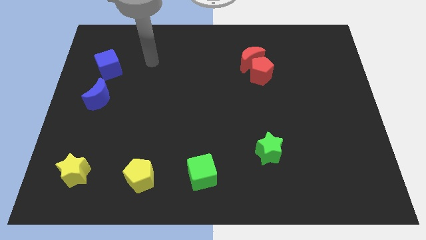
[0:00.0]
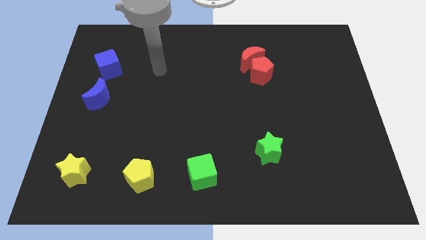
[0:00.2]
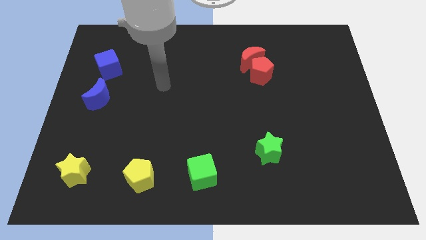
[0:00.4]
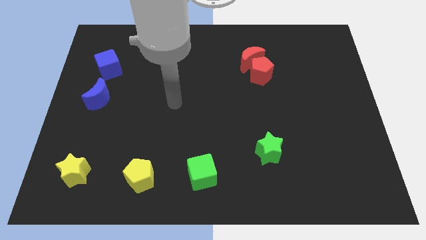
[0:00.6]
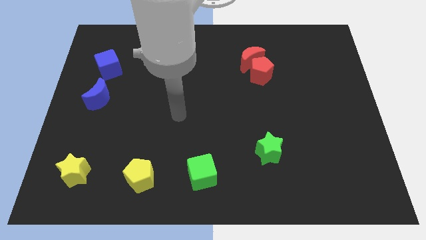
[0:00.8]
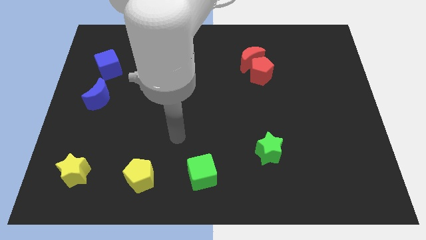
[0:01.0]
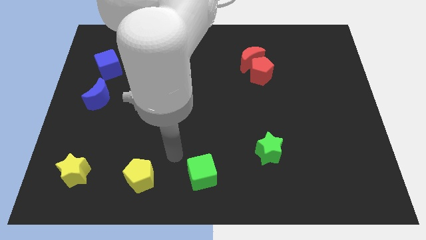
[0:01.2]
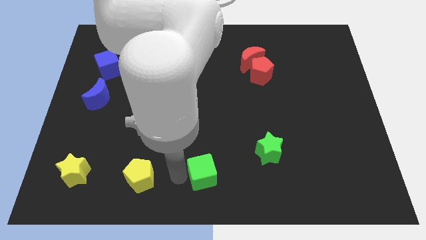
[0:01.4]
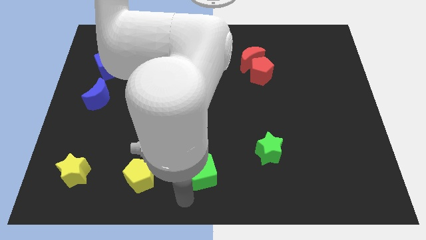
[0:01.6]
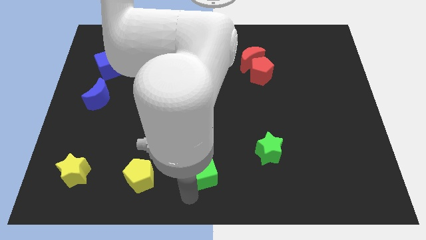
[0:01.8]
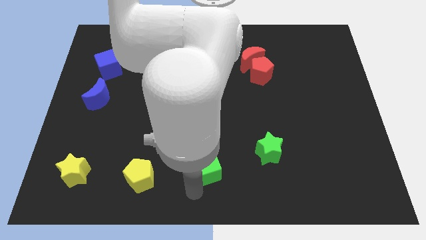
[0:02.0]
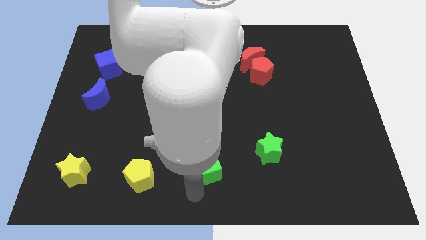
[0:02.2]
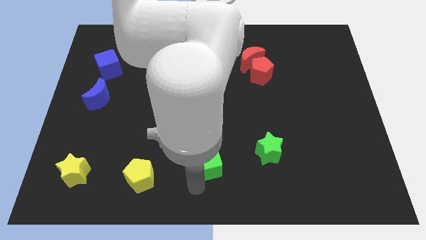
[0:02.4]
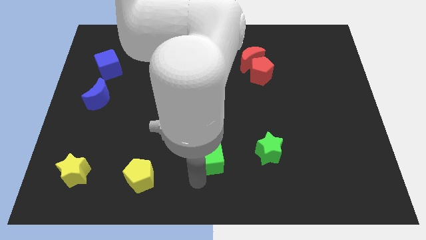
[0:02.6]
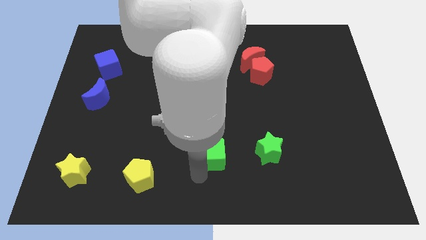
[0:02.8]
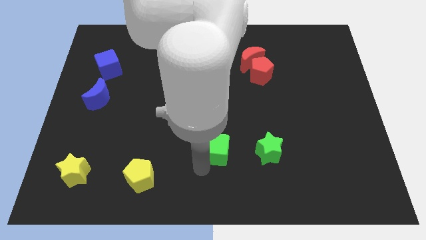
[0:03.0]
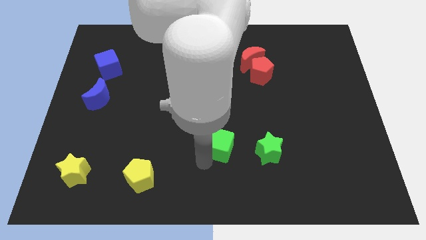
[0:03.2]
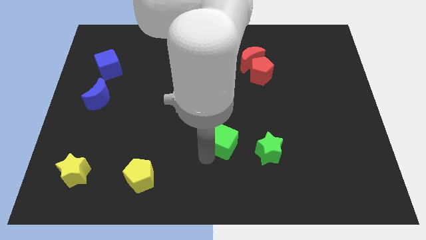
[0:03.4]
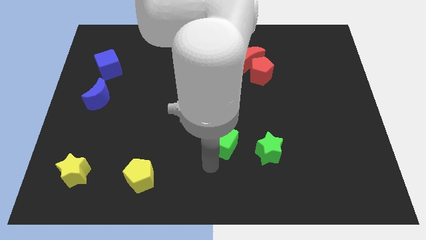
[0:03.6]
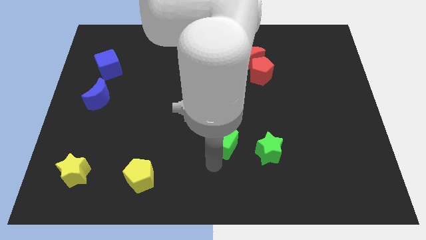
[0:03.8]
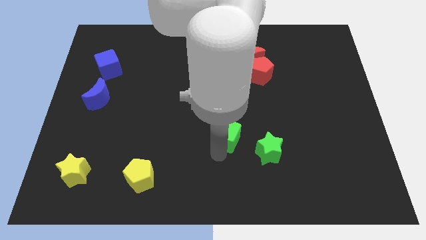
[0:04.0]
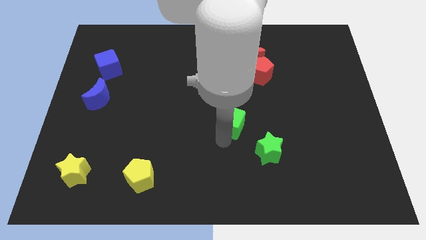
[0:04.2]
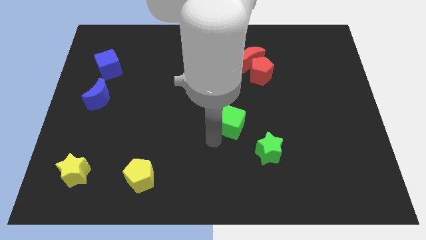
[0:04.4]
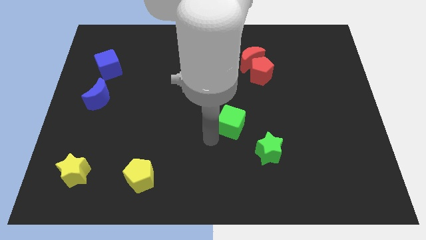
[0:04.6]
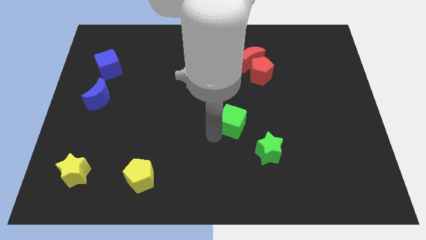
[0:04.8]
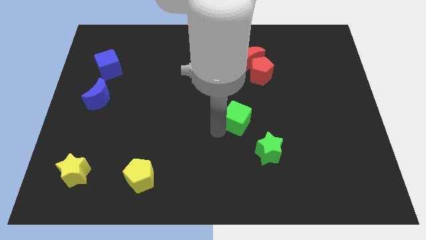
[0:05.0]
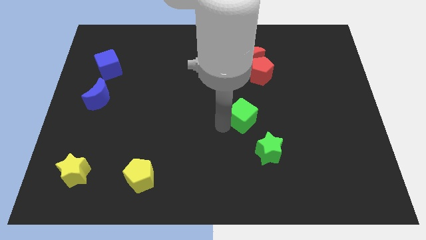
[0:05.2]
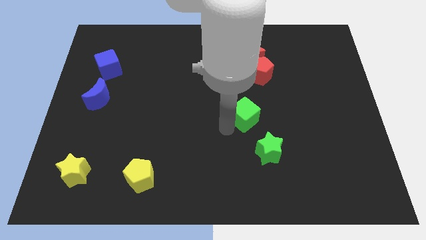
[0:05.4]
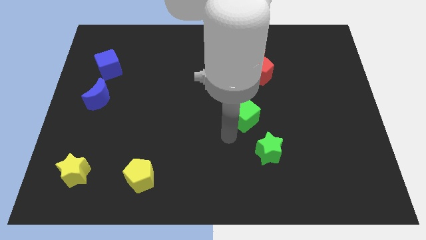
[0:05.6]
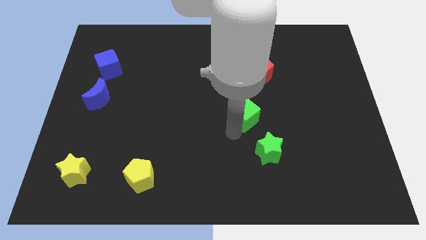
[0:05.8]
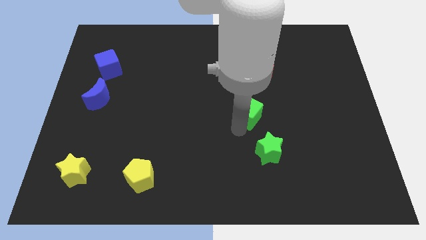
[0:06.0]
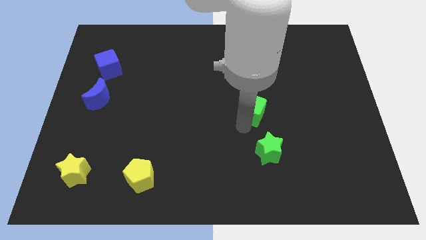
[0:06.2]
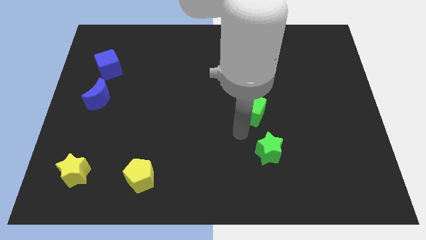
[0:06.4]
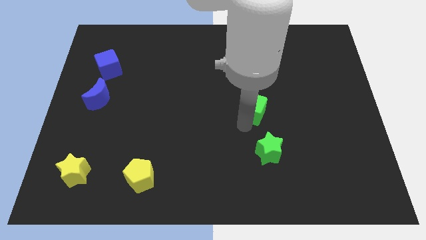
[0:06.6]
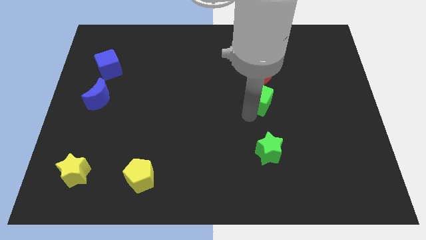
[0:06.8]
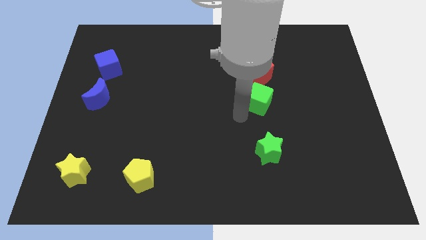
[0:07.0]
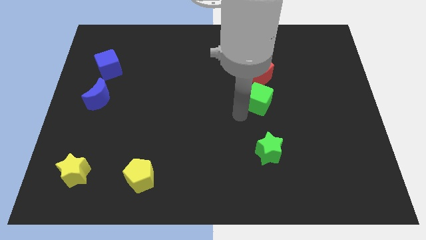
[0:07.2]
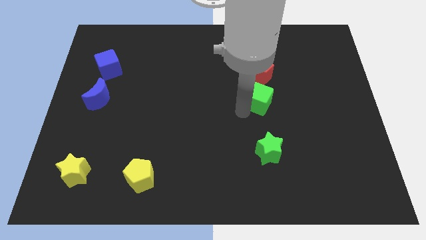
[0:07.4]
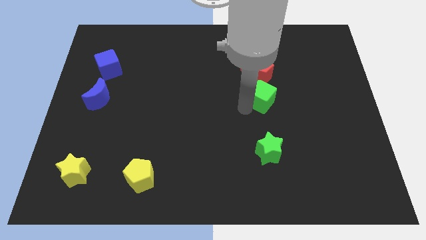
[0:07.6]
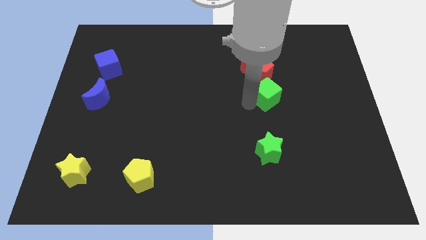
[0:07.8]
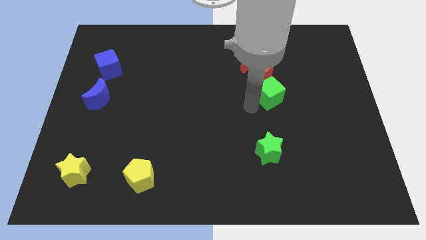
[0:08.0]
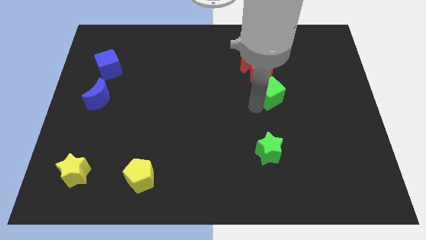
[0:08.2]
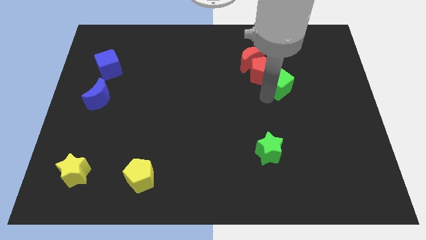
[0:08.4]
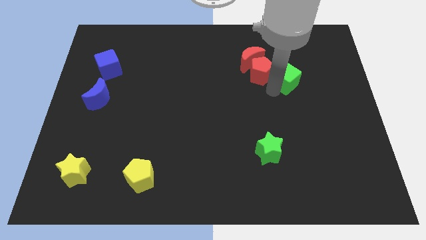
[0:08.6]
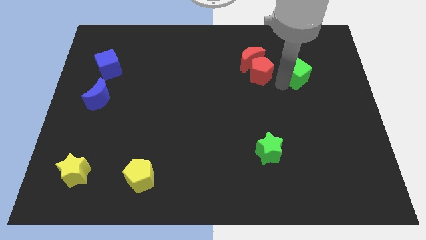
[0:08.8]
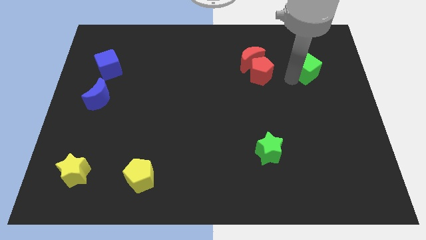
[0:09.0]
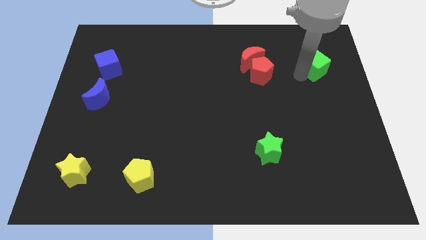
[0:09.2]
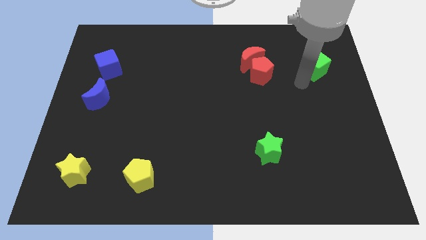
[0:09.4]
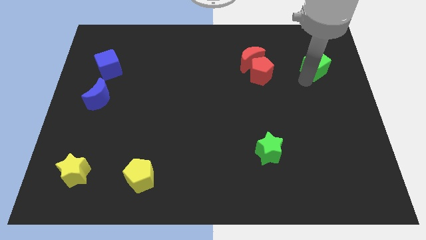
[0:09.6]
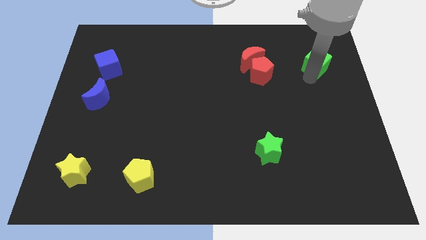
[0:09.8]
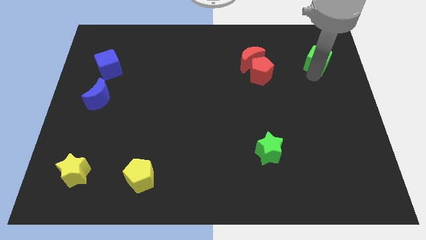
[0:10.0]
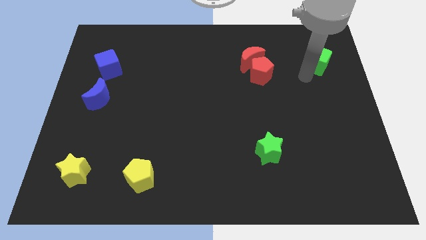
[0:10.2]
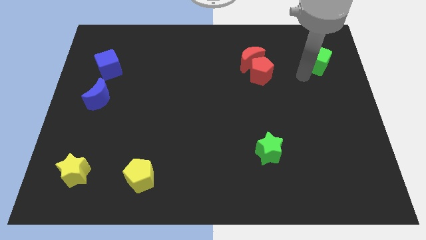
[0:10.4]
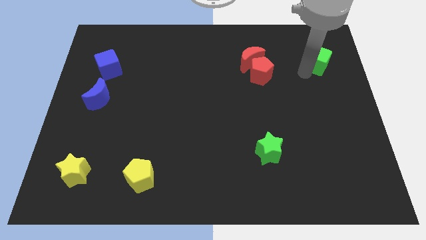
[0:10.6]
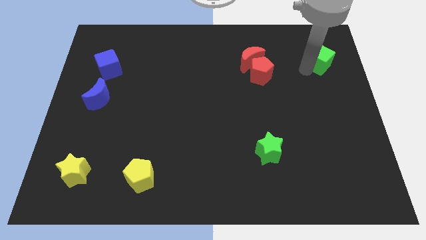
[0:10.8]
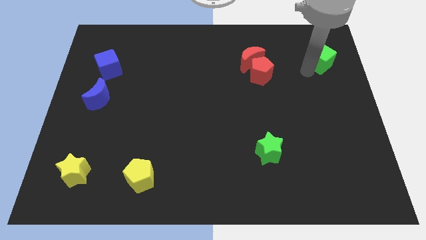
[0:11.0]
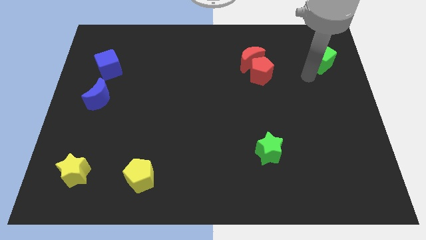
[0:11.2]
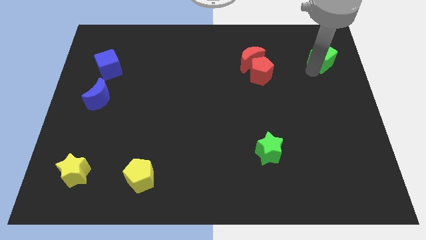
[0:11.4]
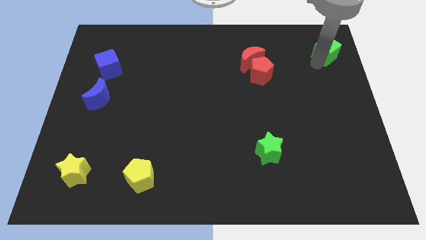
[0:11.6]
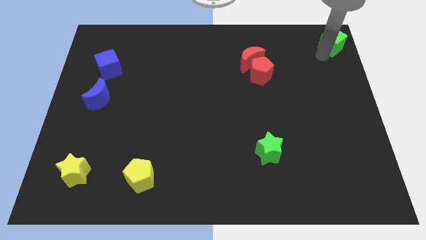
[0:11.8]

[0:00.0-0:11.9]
slide the green cube to the top right corner

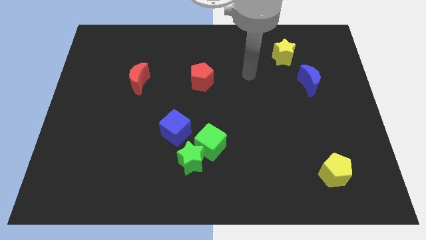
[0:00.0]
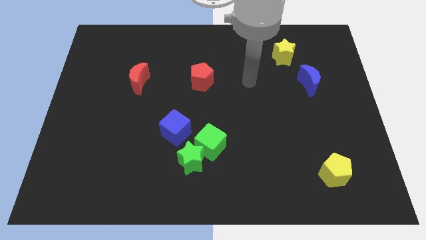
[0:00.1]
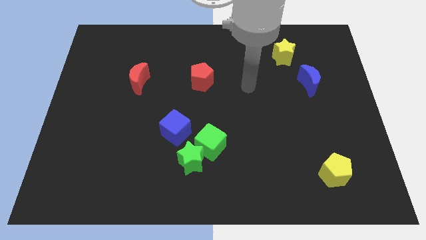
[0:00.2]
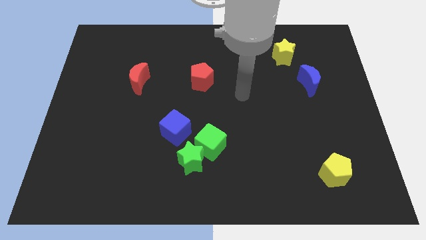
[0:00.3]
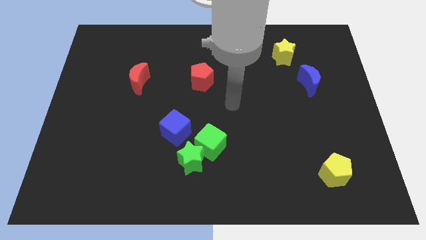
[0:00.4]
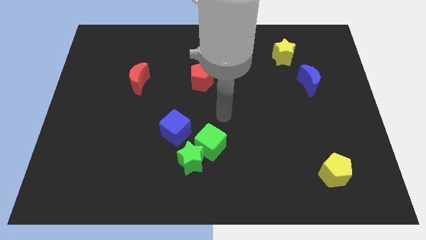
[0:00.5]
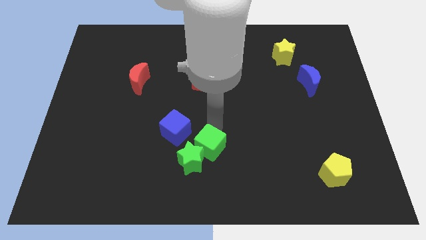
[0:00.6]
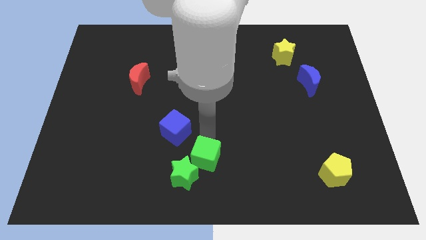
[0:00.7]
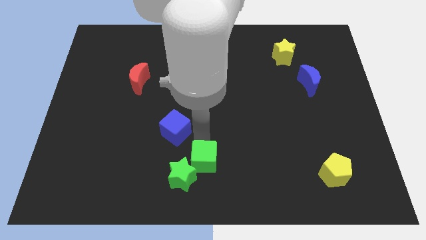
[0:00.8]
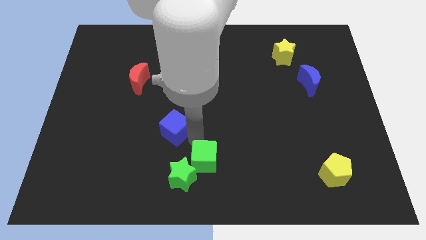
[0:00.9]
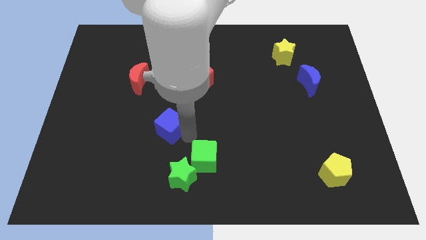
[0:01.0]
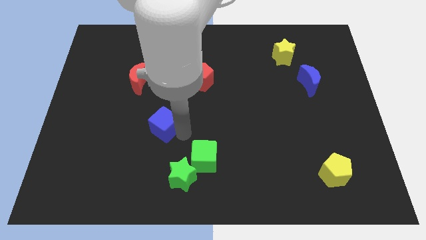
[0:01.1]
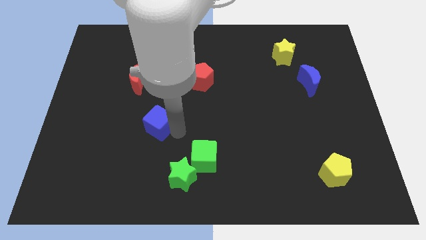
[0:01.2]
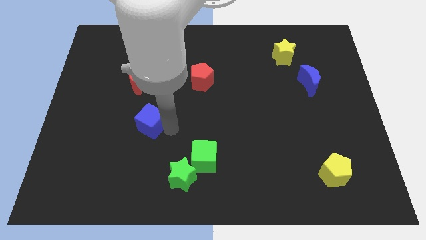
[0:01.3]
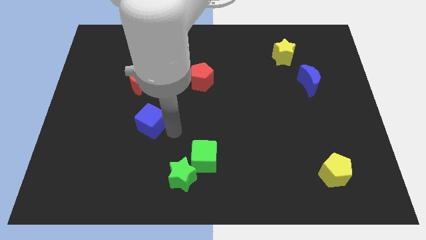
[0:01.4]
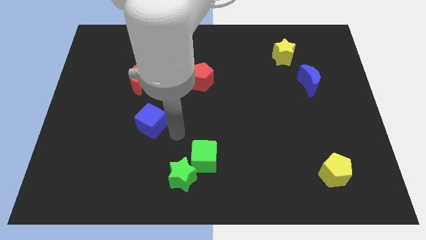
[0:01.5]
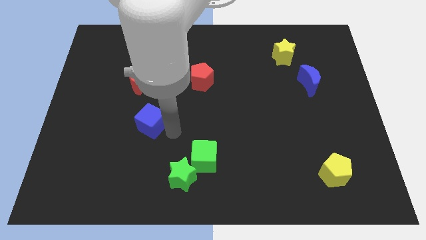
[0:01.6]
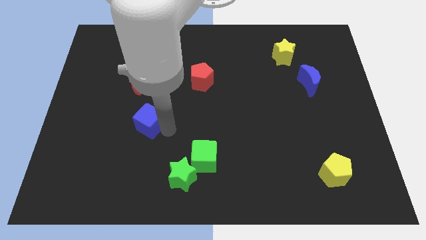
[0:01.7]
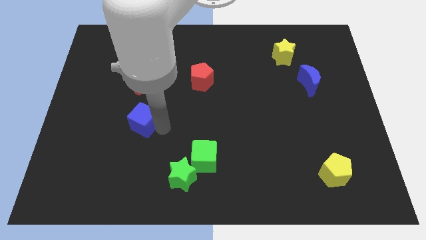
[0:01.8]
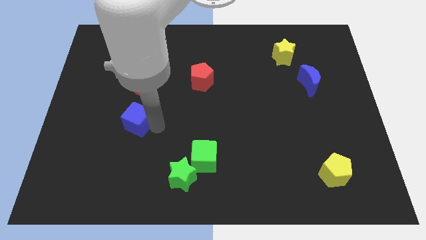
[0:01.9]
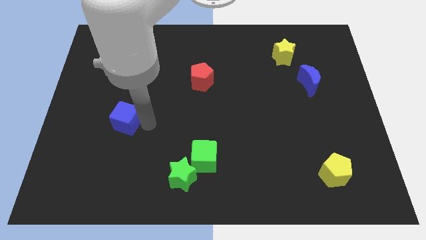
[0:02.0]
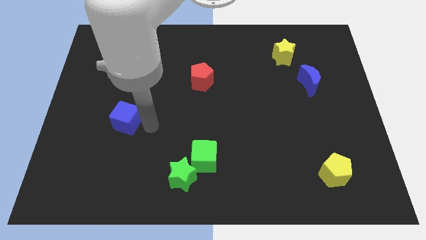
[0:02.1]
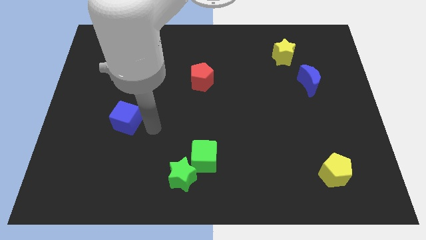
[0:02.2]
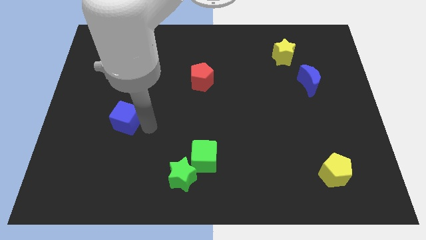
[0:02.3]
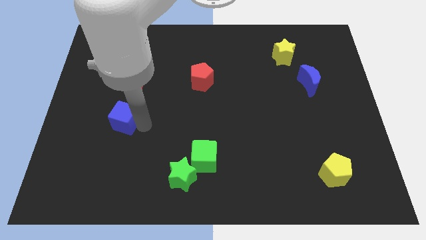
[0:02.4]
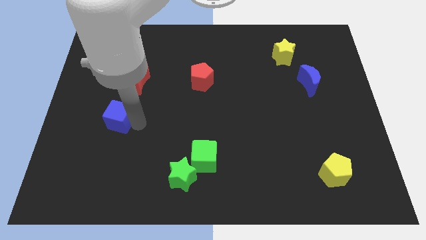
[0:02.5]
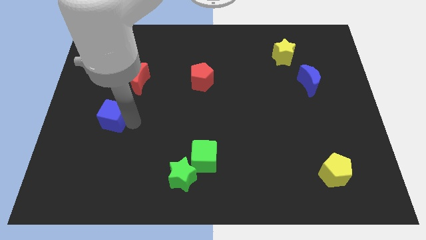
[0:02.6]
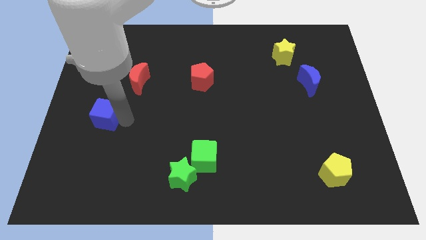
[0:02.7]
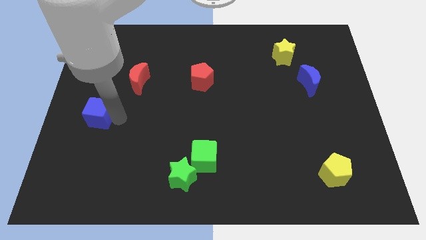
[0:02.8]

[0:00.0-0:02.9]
move the blue cube to the center left
